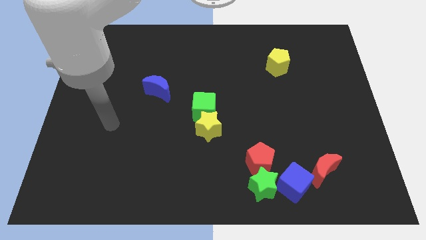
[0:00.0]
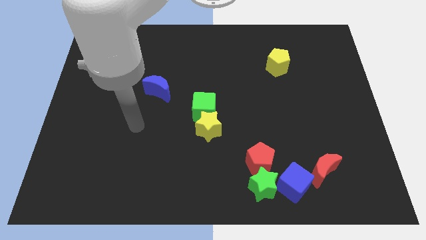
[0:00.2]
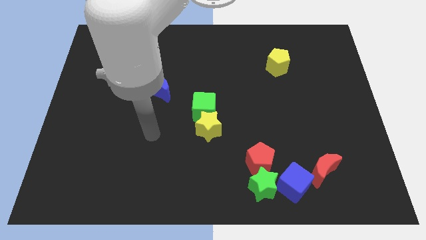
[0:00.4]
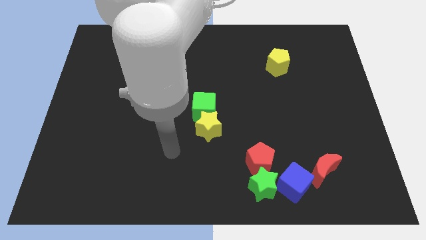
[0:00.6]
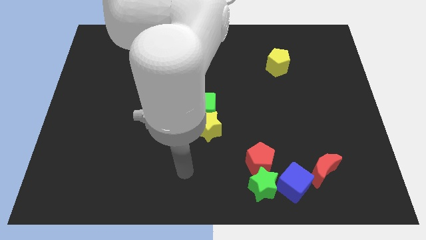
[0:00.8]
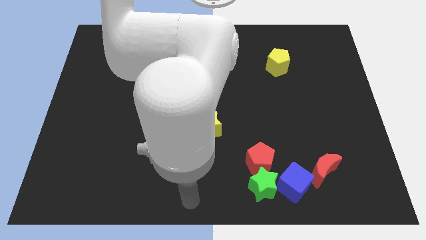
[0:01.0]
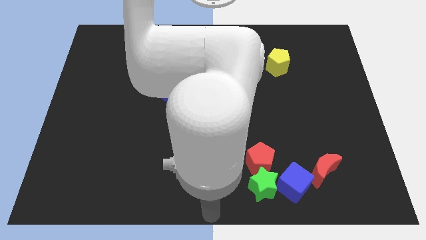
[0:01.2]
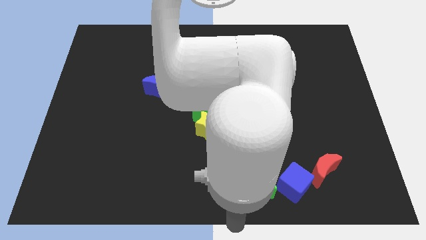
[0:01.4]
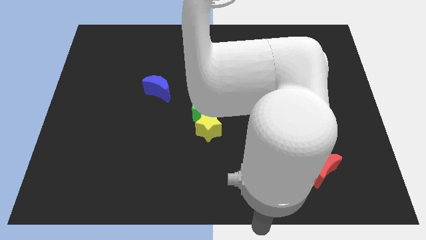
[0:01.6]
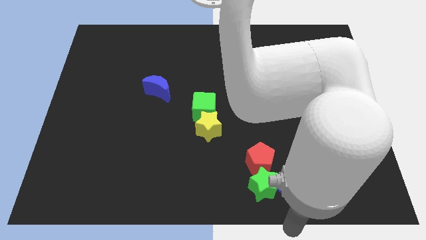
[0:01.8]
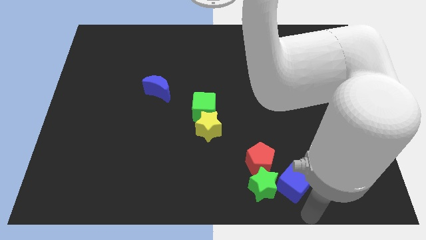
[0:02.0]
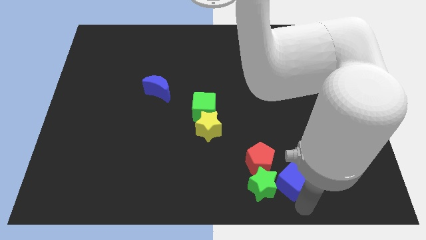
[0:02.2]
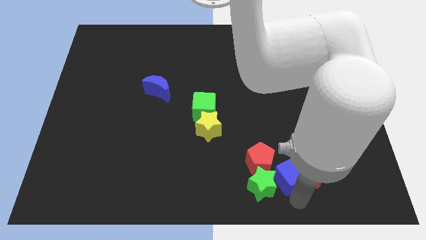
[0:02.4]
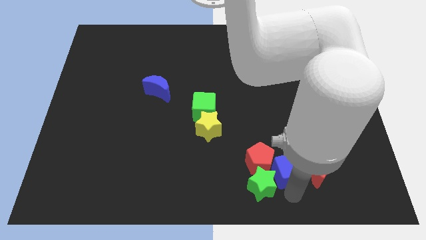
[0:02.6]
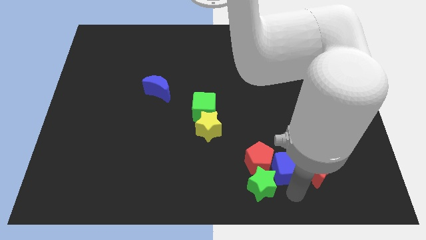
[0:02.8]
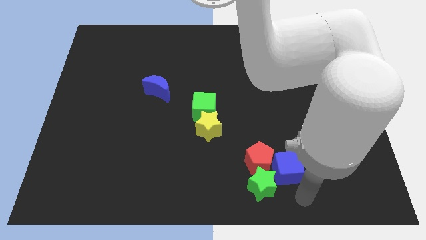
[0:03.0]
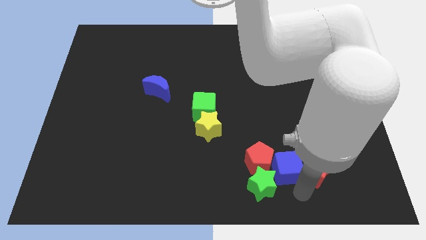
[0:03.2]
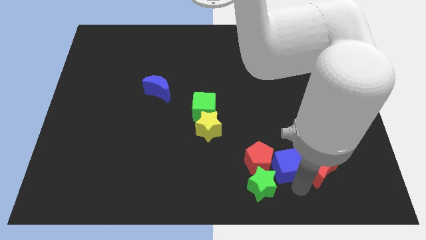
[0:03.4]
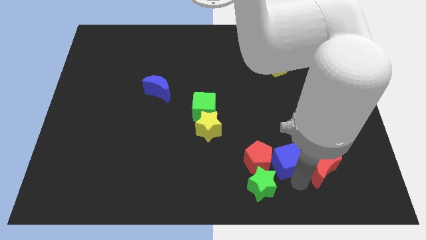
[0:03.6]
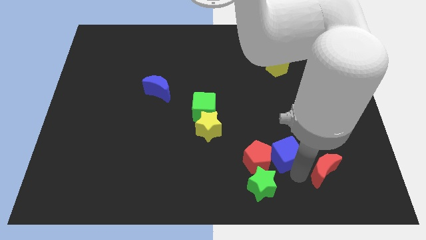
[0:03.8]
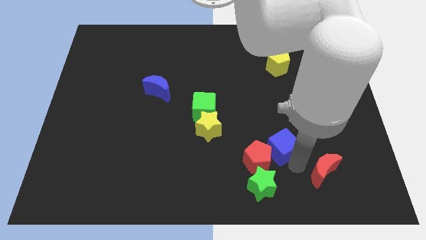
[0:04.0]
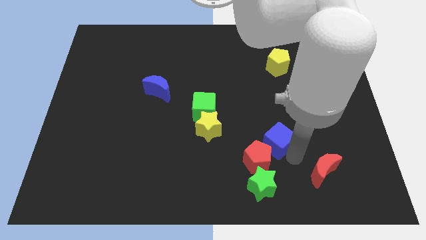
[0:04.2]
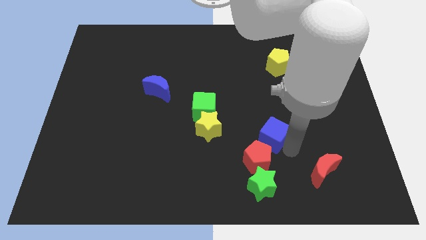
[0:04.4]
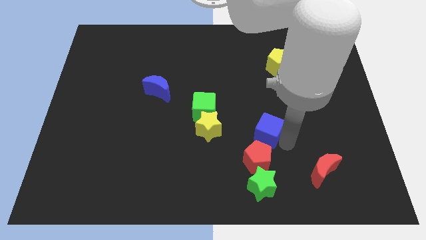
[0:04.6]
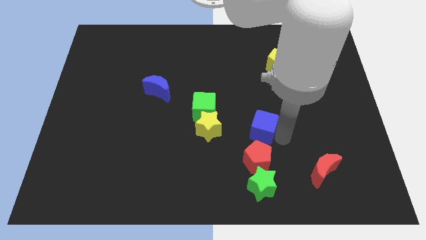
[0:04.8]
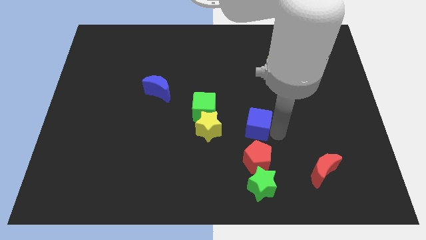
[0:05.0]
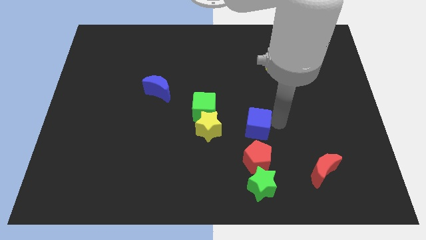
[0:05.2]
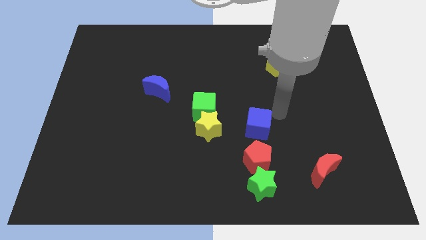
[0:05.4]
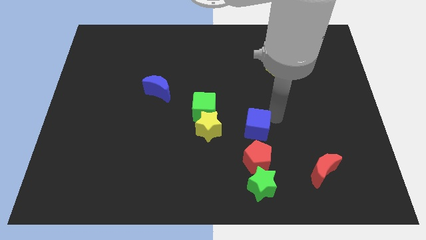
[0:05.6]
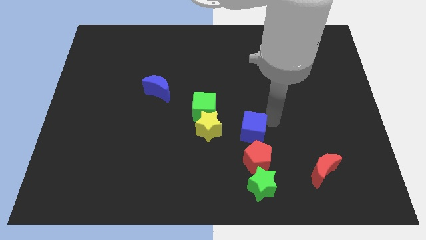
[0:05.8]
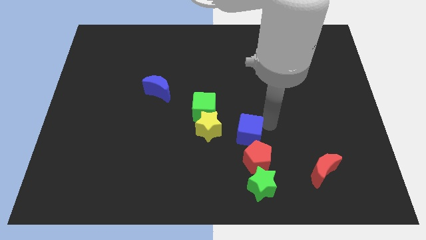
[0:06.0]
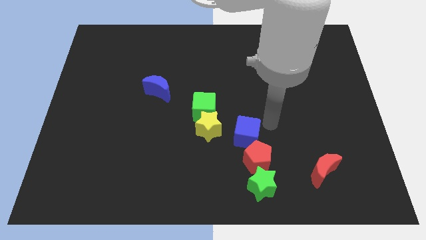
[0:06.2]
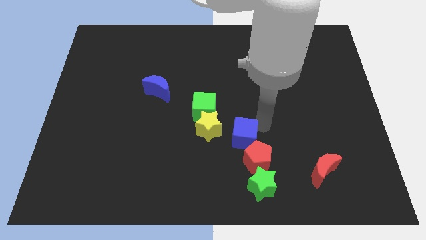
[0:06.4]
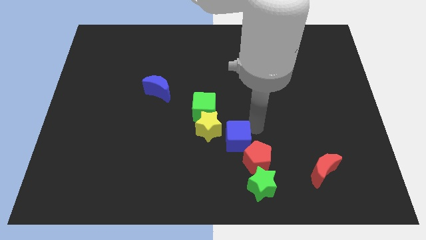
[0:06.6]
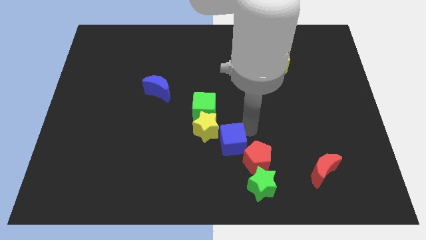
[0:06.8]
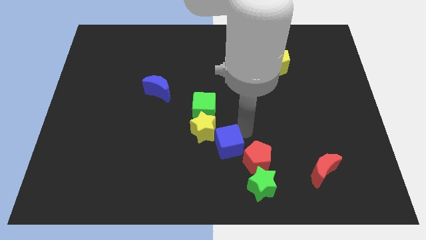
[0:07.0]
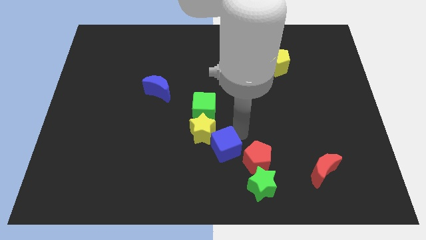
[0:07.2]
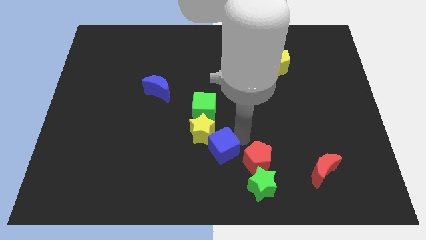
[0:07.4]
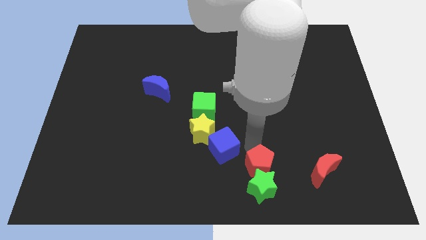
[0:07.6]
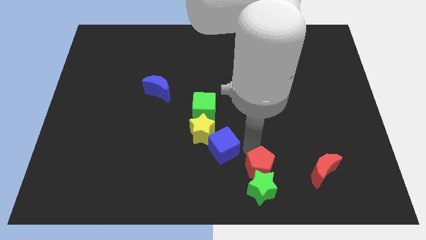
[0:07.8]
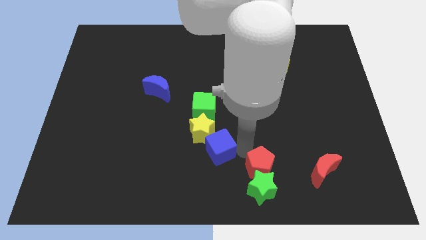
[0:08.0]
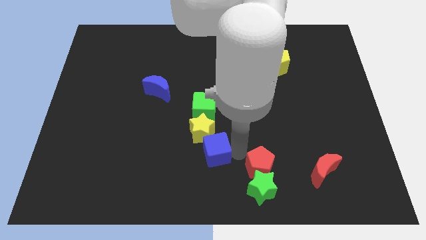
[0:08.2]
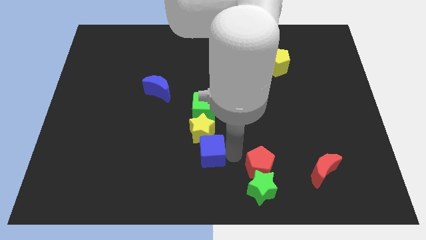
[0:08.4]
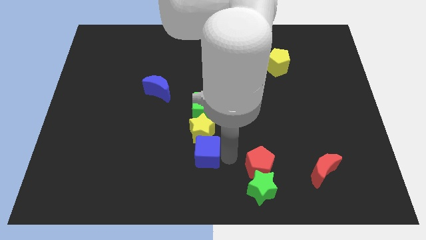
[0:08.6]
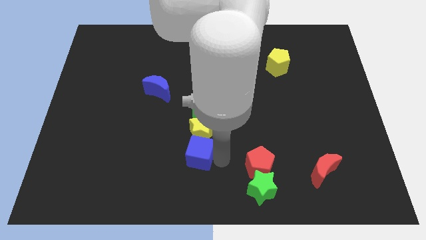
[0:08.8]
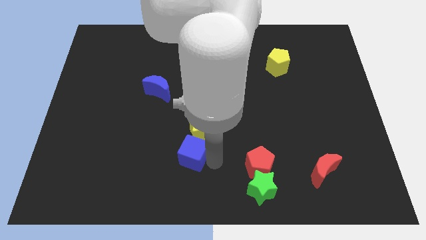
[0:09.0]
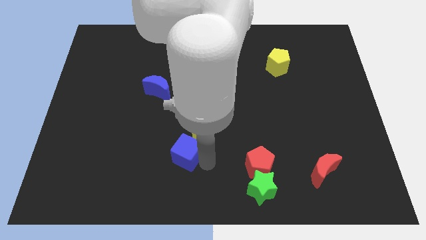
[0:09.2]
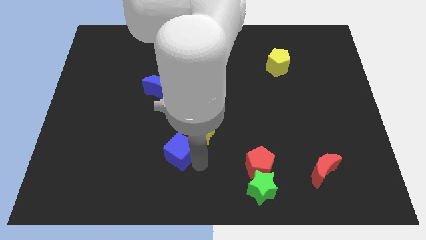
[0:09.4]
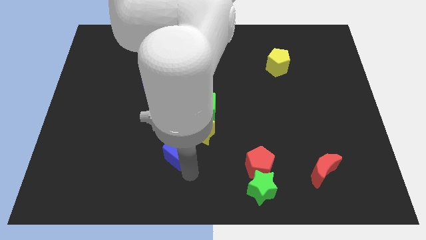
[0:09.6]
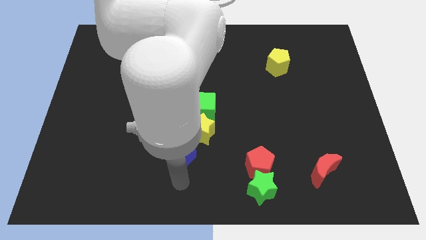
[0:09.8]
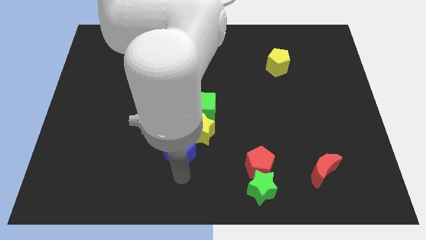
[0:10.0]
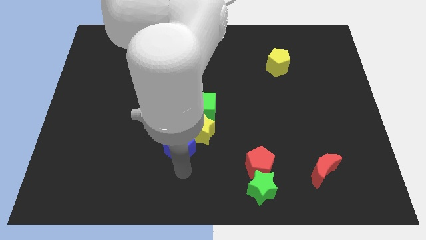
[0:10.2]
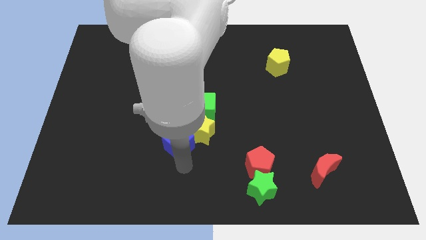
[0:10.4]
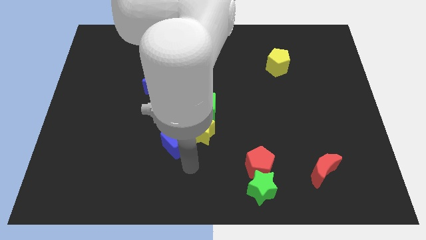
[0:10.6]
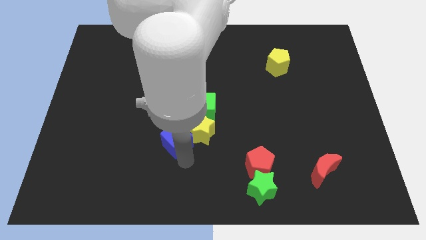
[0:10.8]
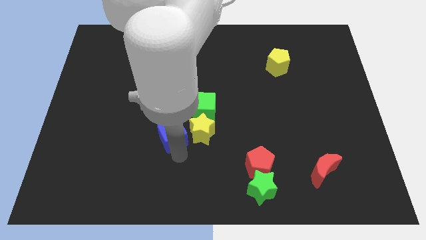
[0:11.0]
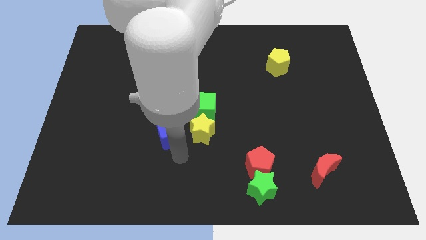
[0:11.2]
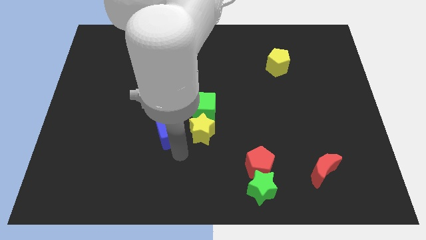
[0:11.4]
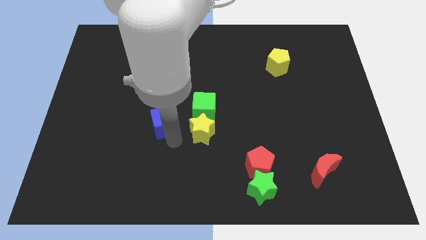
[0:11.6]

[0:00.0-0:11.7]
move the blue cube left of the green cube

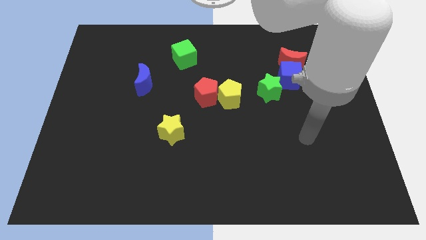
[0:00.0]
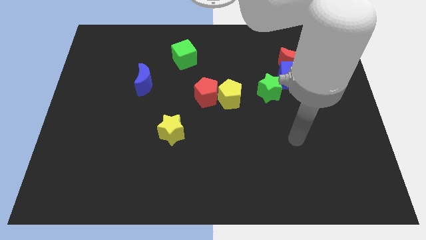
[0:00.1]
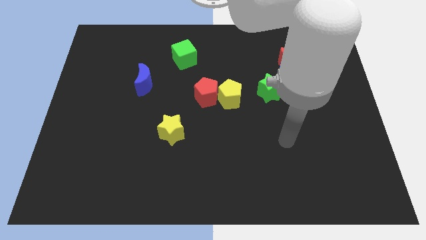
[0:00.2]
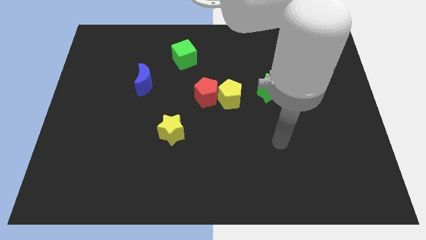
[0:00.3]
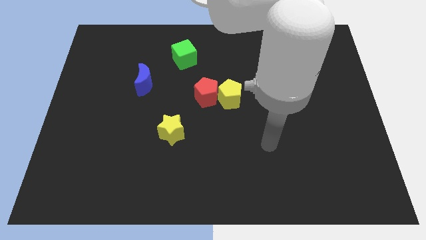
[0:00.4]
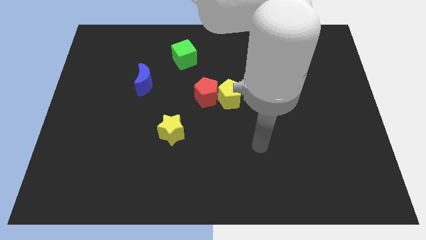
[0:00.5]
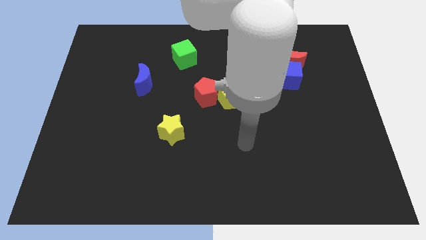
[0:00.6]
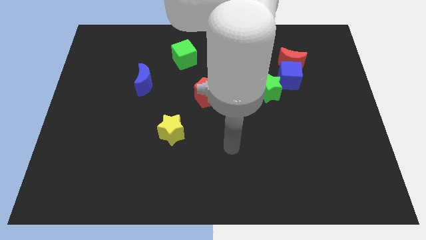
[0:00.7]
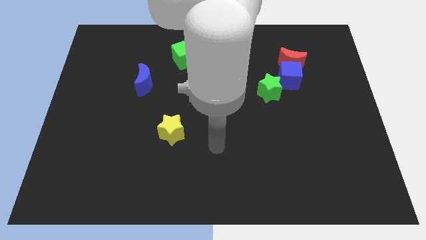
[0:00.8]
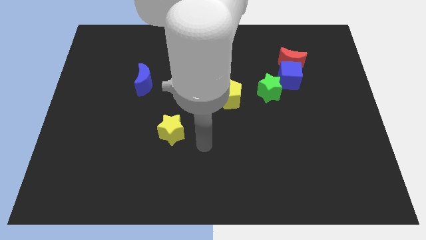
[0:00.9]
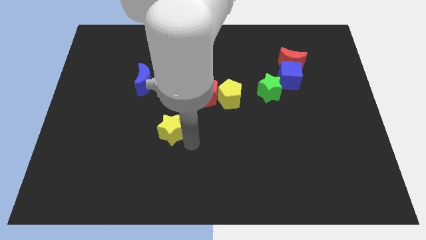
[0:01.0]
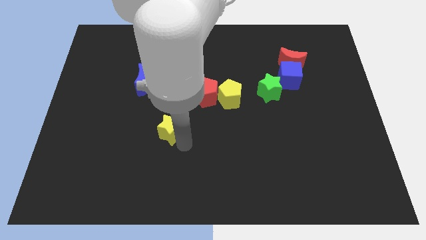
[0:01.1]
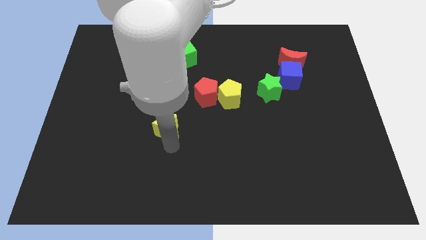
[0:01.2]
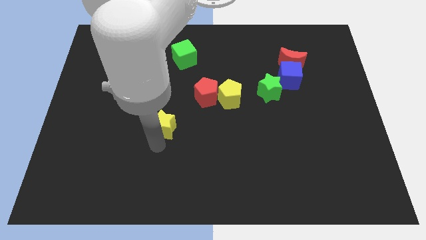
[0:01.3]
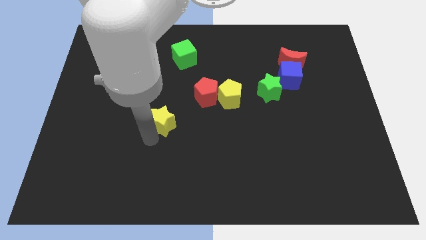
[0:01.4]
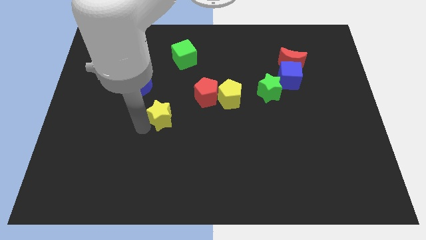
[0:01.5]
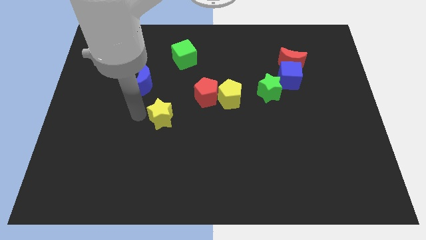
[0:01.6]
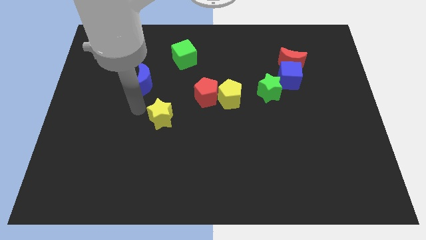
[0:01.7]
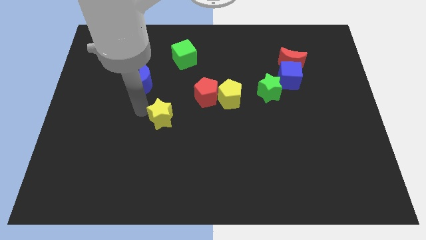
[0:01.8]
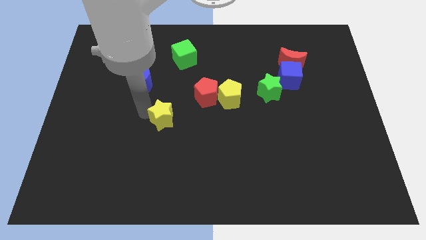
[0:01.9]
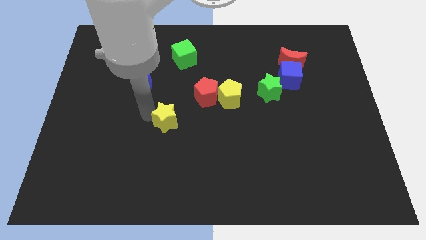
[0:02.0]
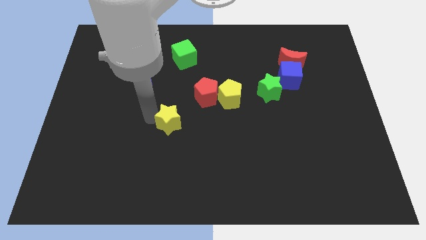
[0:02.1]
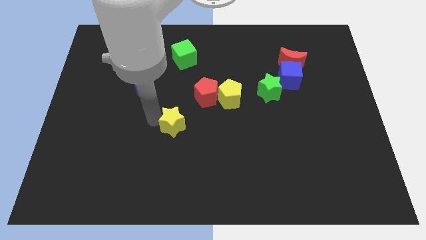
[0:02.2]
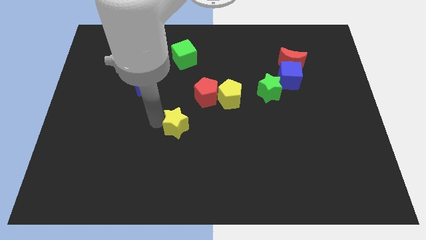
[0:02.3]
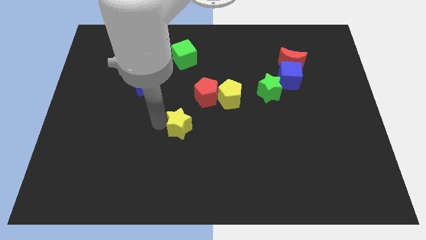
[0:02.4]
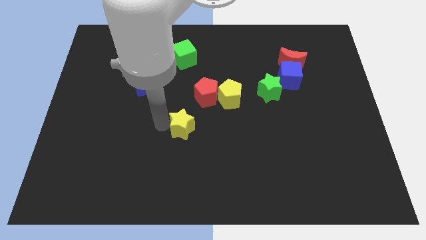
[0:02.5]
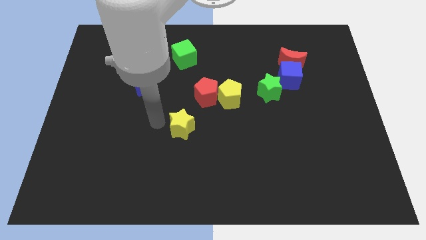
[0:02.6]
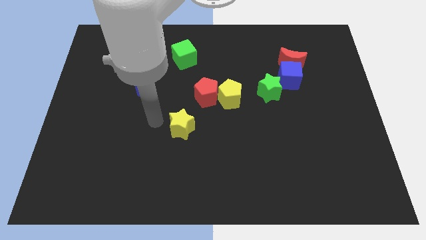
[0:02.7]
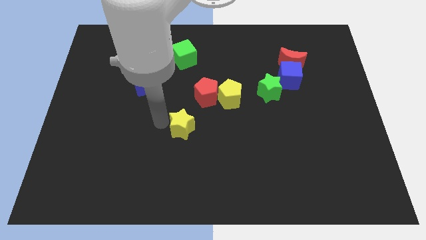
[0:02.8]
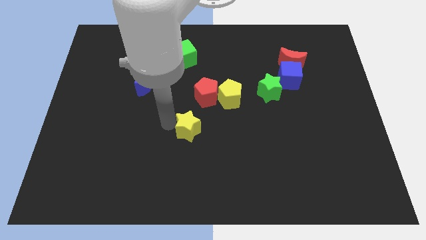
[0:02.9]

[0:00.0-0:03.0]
slide the yellow star below the red pentagon
